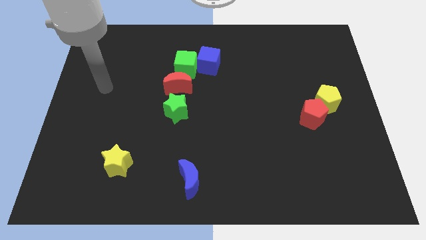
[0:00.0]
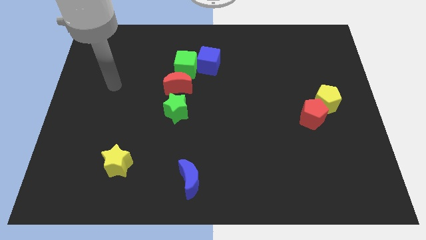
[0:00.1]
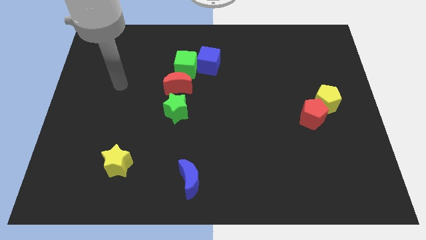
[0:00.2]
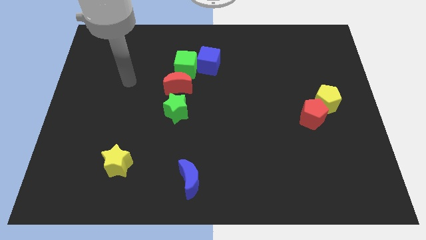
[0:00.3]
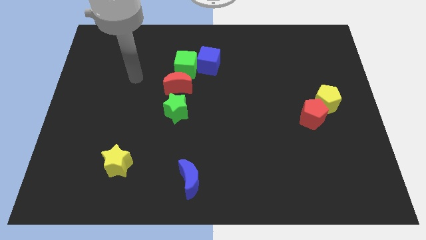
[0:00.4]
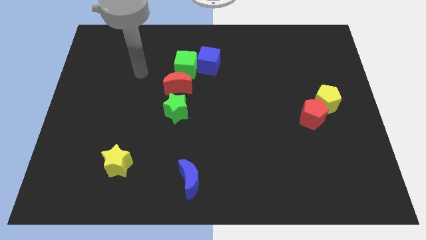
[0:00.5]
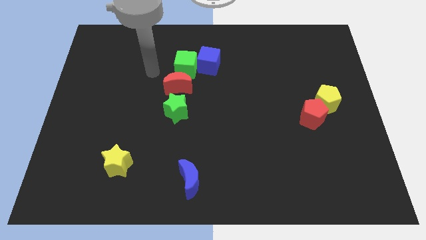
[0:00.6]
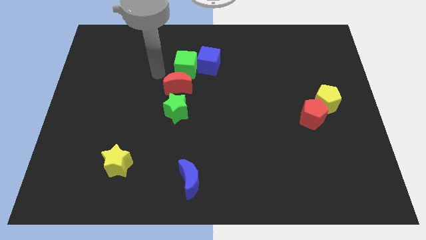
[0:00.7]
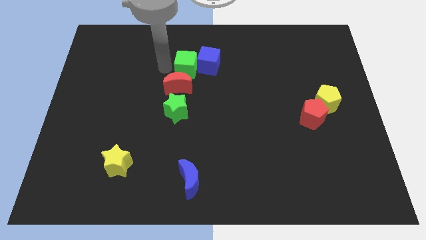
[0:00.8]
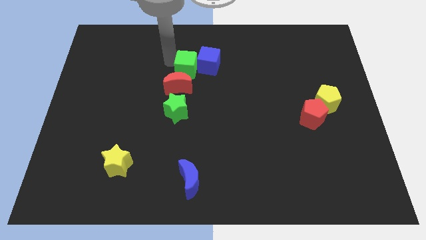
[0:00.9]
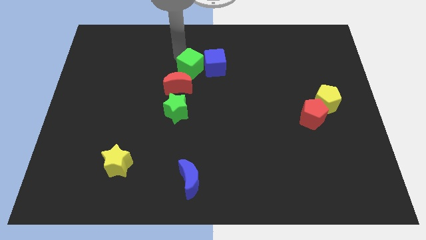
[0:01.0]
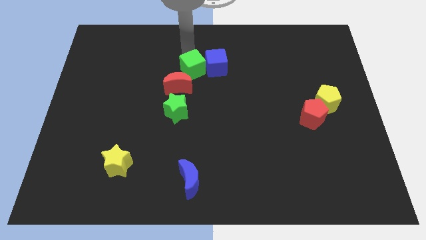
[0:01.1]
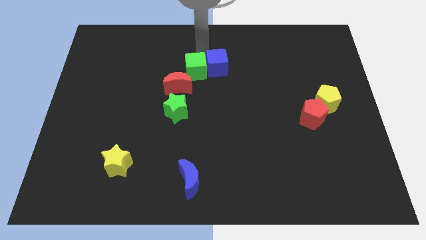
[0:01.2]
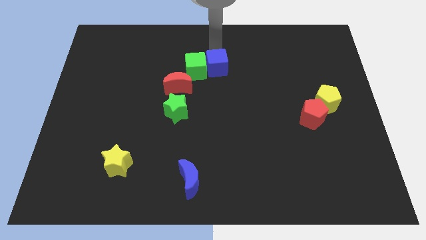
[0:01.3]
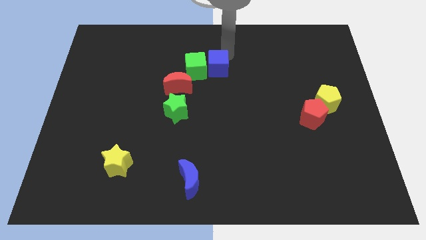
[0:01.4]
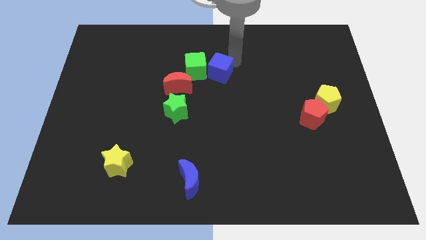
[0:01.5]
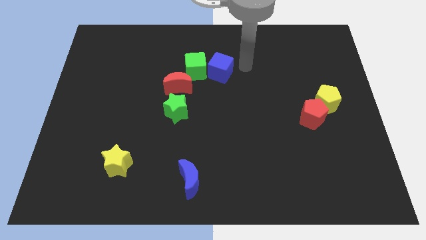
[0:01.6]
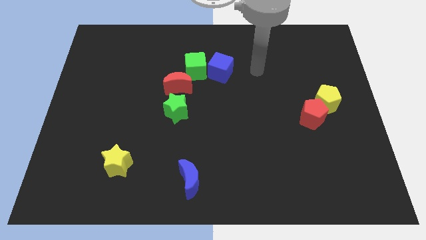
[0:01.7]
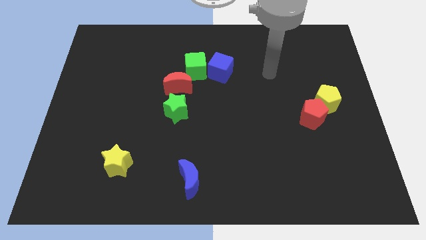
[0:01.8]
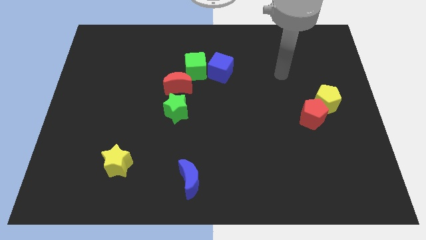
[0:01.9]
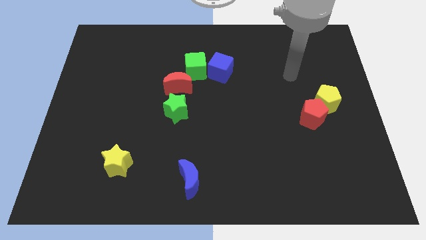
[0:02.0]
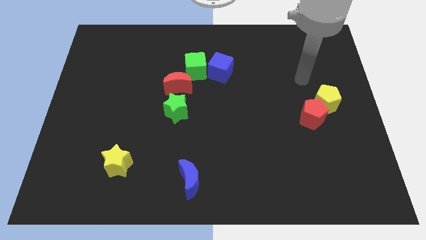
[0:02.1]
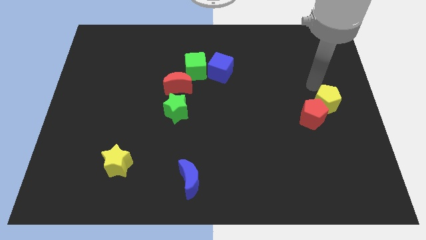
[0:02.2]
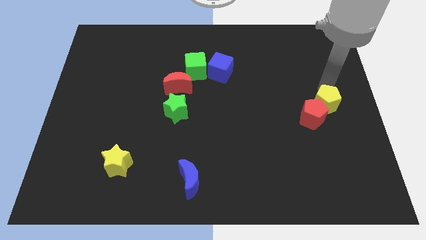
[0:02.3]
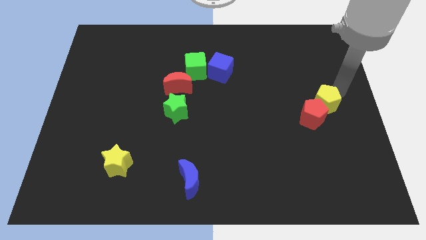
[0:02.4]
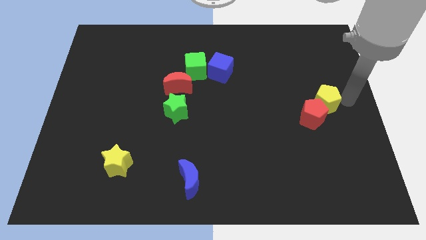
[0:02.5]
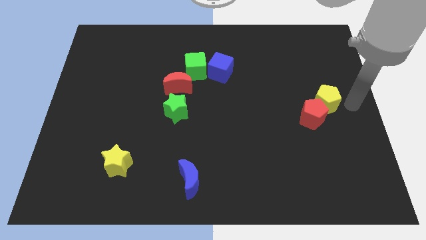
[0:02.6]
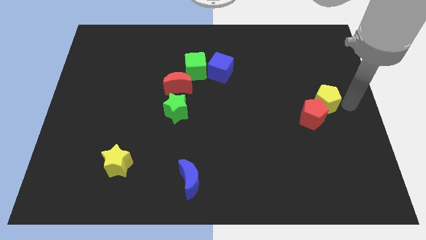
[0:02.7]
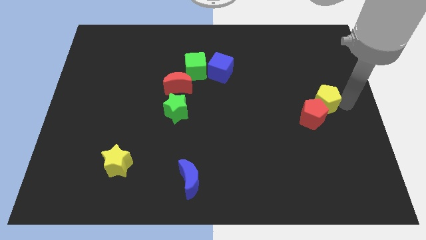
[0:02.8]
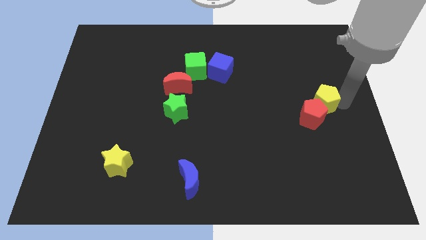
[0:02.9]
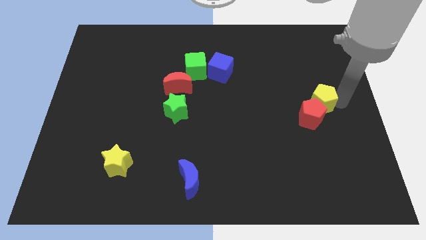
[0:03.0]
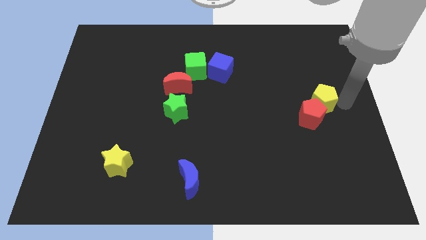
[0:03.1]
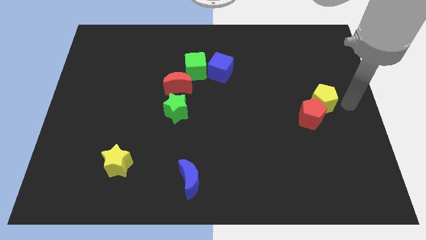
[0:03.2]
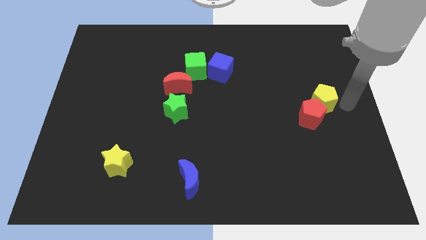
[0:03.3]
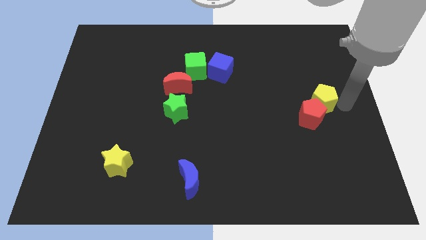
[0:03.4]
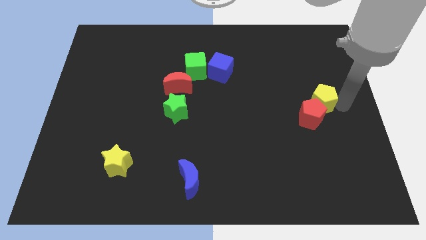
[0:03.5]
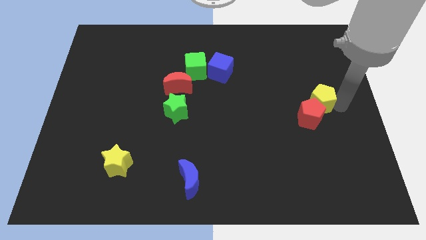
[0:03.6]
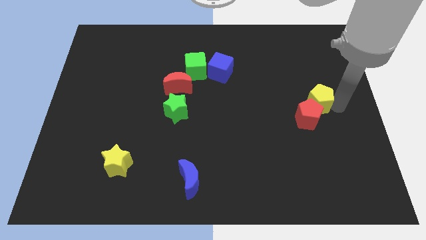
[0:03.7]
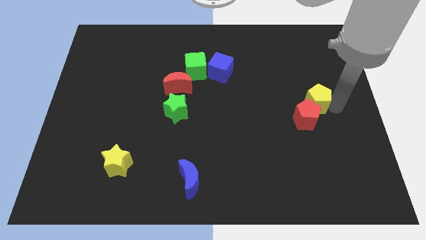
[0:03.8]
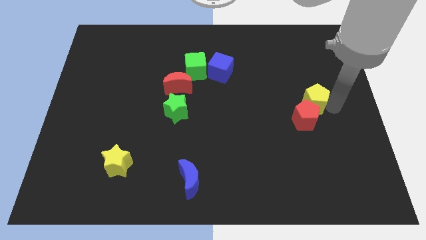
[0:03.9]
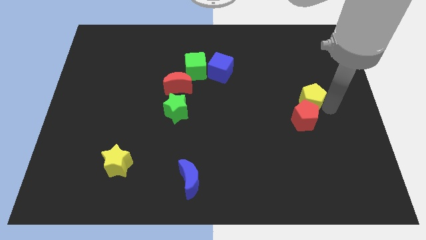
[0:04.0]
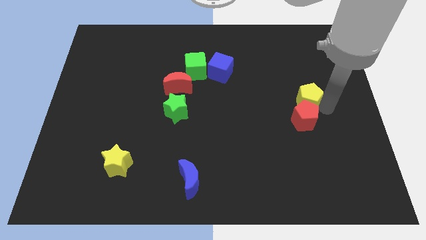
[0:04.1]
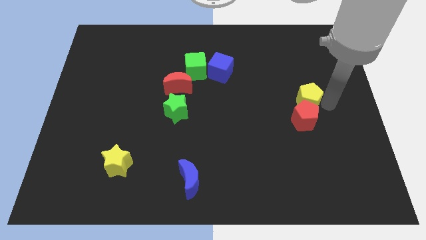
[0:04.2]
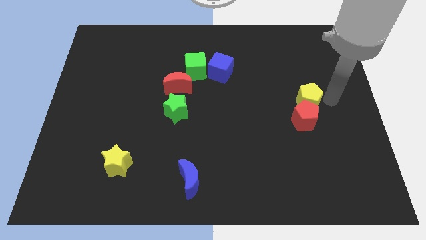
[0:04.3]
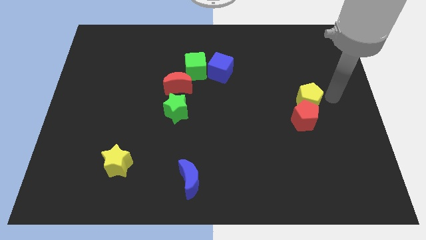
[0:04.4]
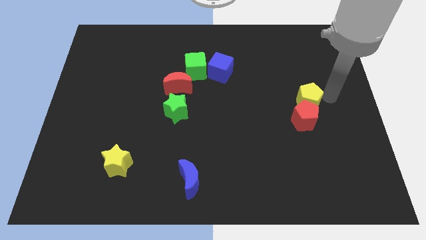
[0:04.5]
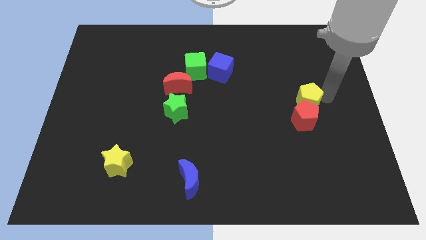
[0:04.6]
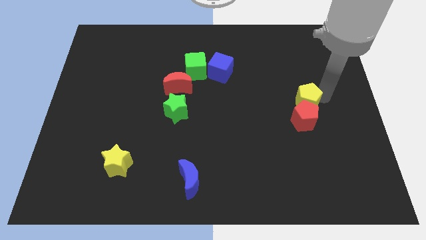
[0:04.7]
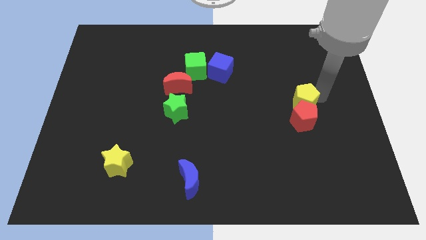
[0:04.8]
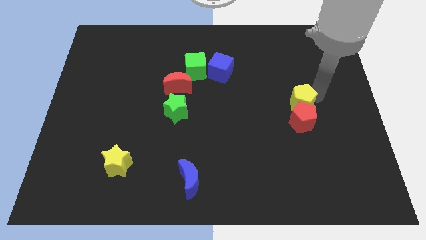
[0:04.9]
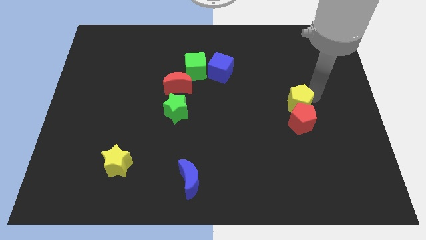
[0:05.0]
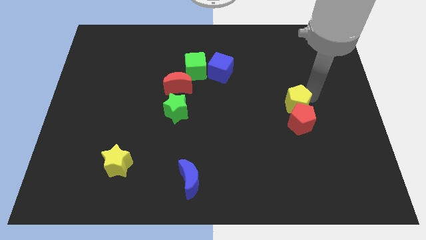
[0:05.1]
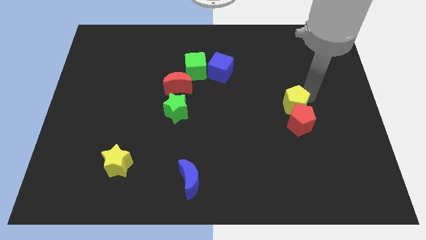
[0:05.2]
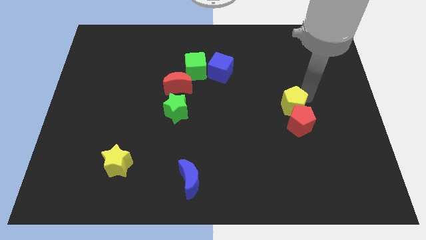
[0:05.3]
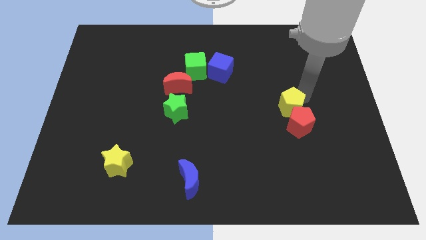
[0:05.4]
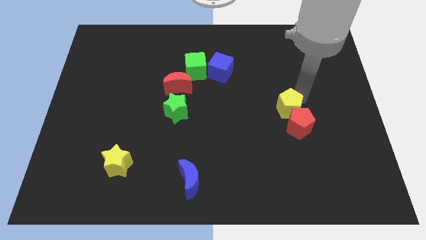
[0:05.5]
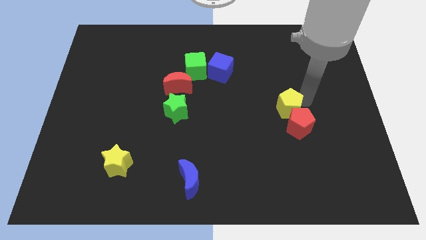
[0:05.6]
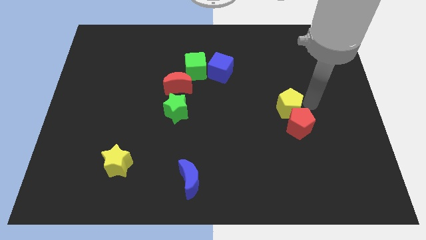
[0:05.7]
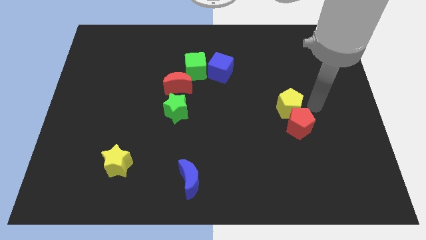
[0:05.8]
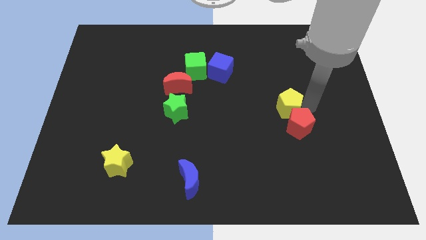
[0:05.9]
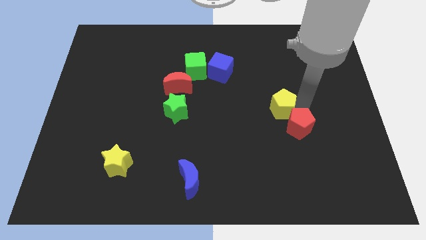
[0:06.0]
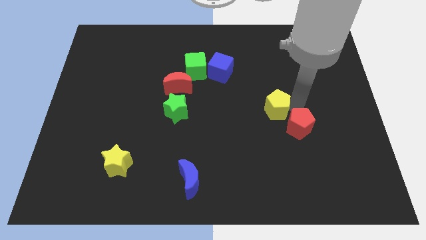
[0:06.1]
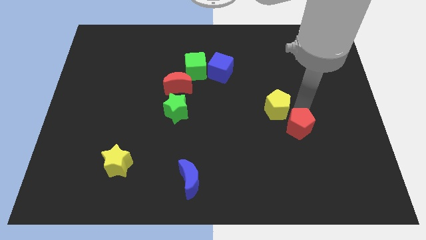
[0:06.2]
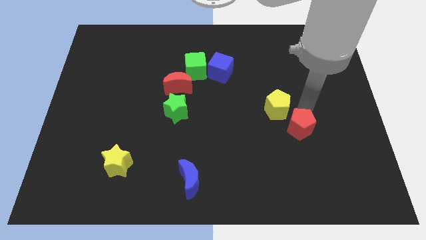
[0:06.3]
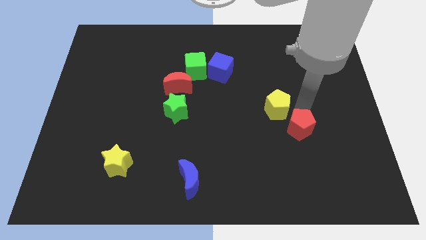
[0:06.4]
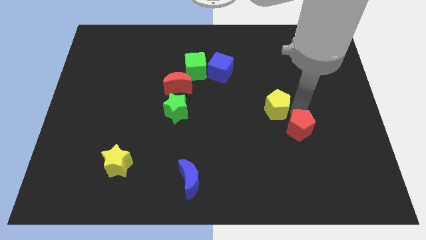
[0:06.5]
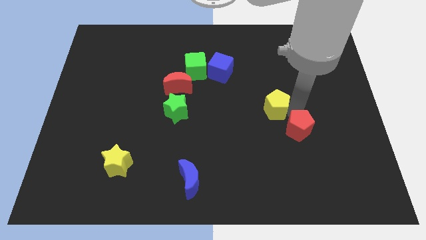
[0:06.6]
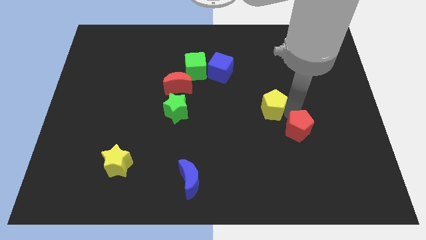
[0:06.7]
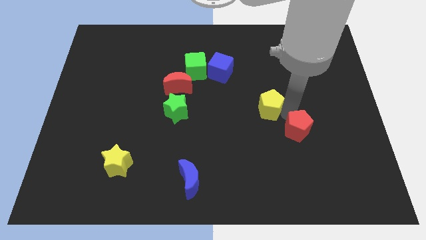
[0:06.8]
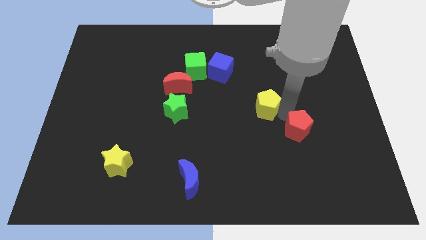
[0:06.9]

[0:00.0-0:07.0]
slide the yellow pentagon to the center
